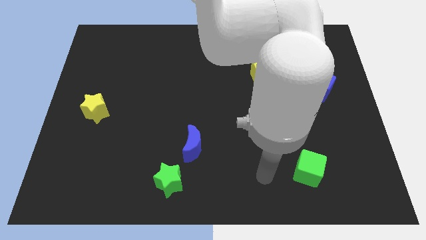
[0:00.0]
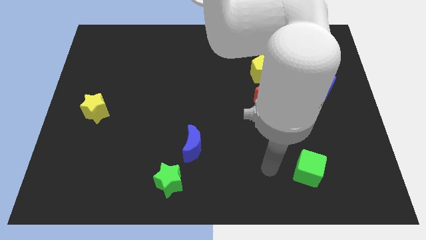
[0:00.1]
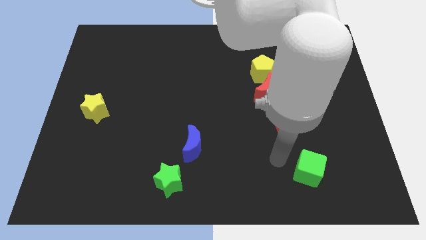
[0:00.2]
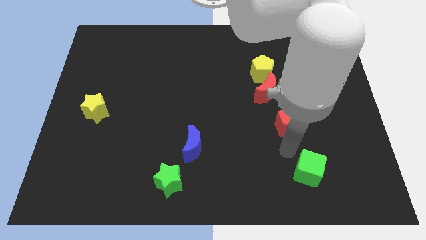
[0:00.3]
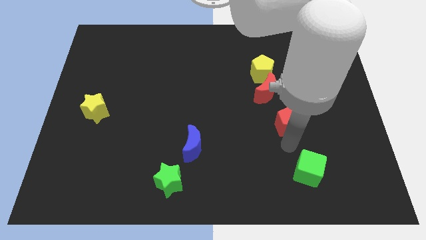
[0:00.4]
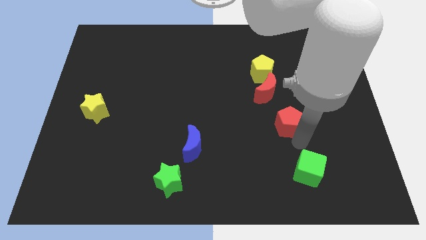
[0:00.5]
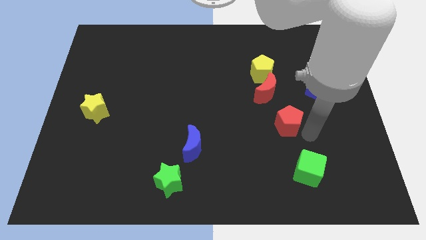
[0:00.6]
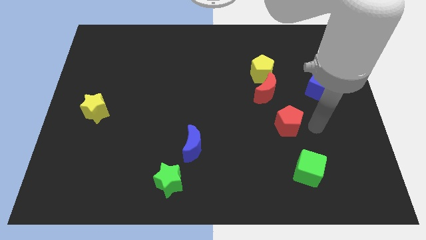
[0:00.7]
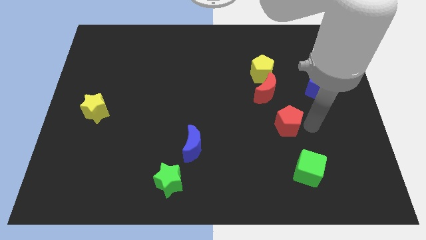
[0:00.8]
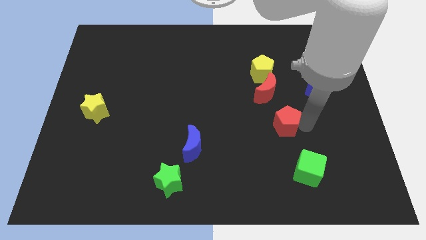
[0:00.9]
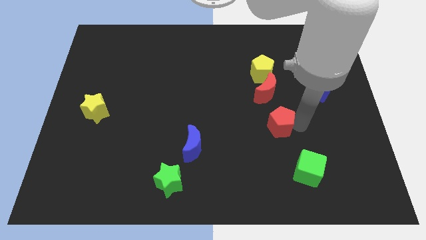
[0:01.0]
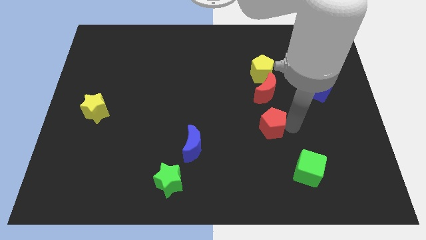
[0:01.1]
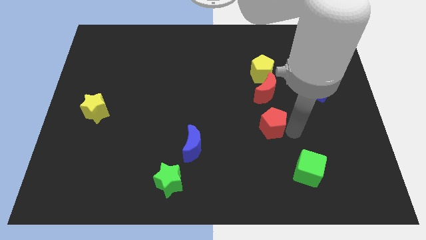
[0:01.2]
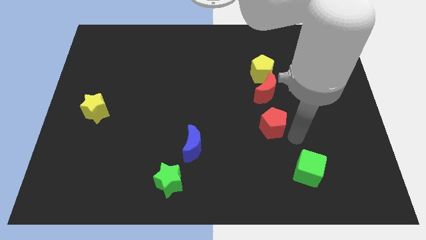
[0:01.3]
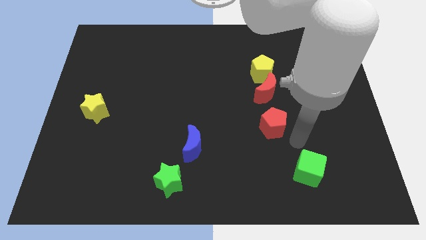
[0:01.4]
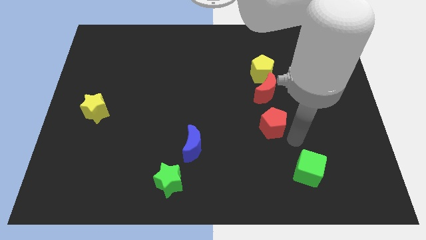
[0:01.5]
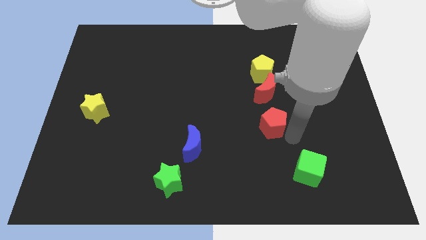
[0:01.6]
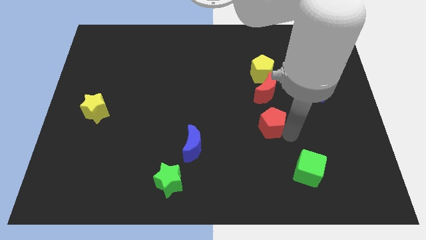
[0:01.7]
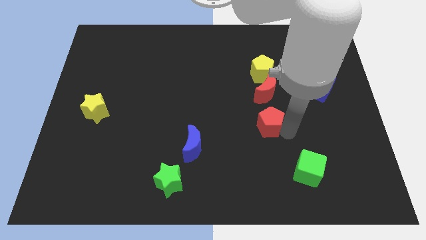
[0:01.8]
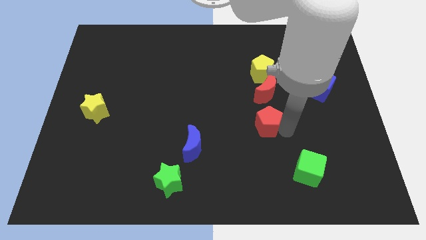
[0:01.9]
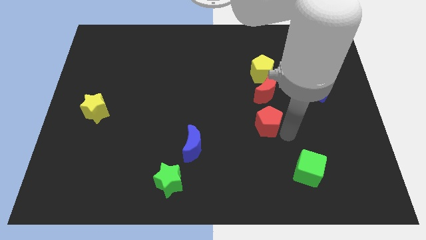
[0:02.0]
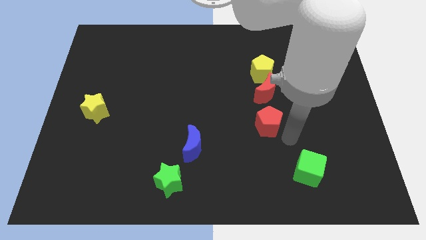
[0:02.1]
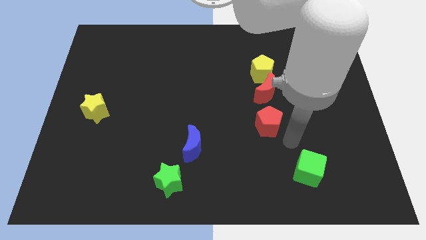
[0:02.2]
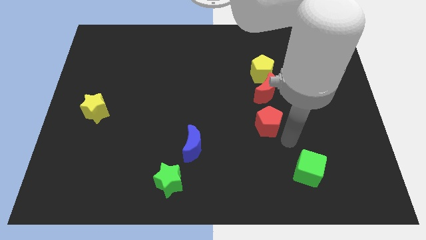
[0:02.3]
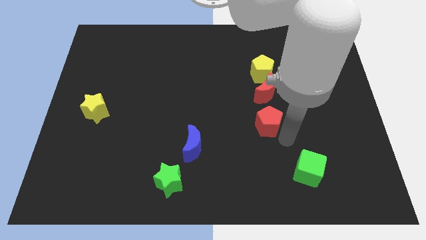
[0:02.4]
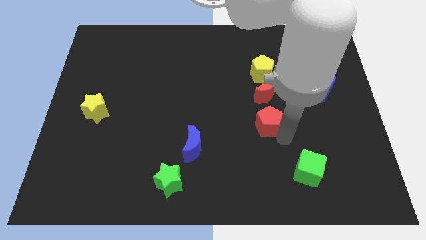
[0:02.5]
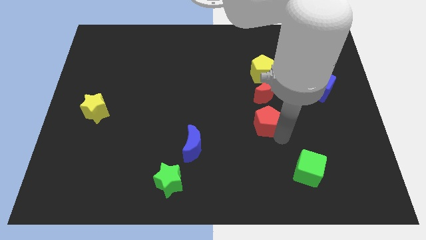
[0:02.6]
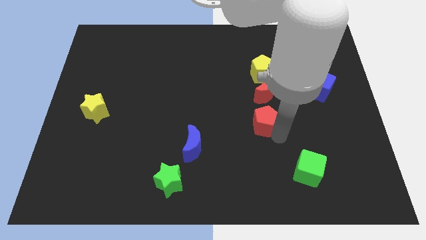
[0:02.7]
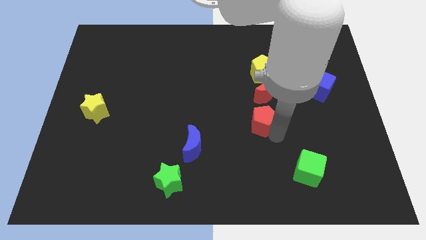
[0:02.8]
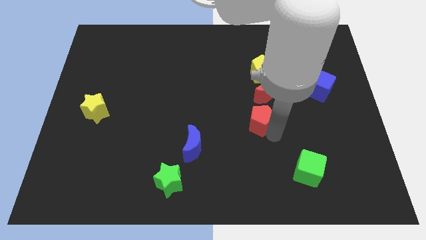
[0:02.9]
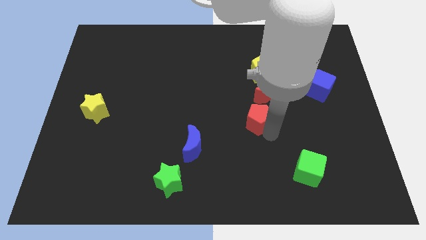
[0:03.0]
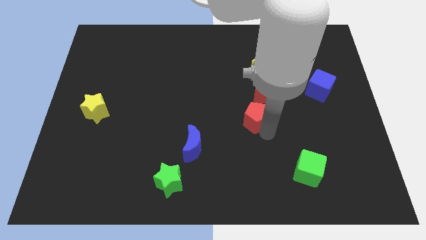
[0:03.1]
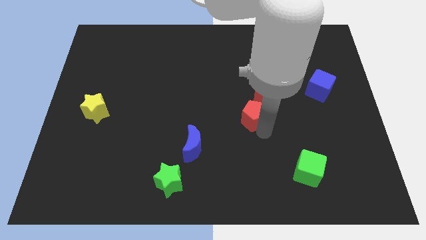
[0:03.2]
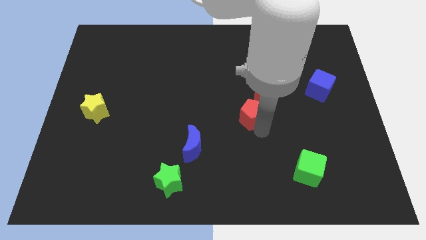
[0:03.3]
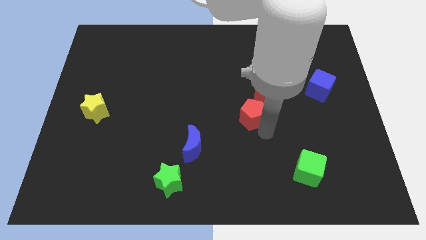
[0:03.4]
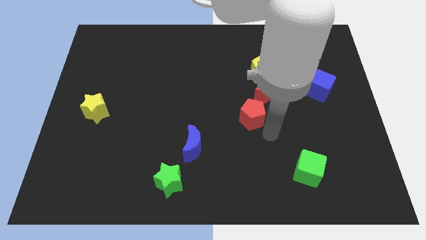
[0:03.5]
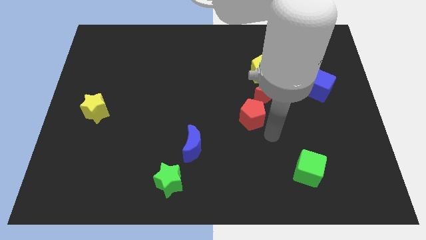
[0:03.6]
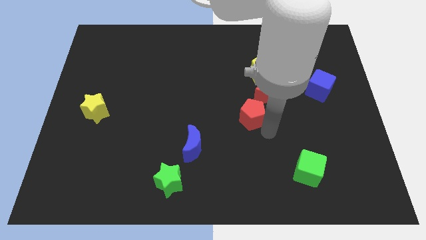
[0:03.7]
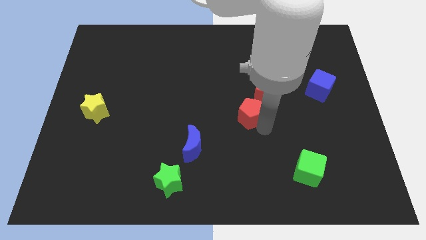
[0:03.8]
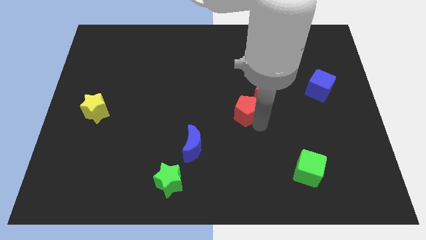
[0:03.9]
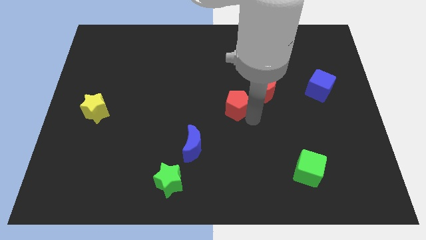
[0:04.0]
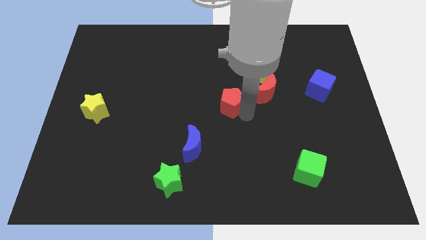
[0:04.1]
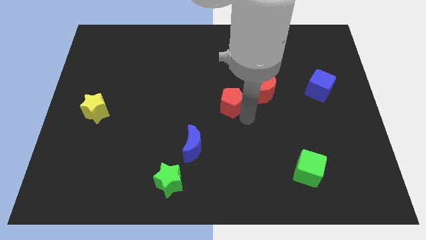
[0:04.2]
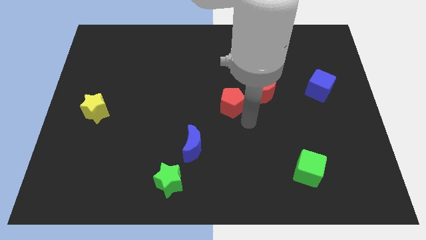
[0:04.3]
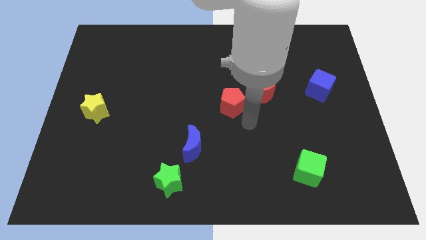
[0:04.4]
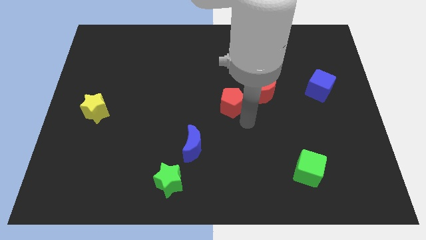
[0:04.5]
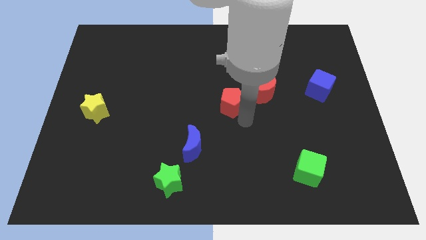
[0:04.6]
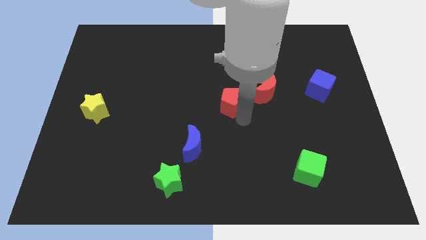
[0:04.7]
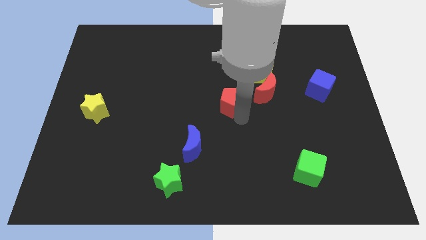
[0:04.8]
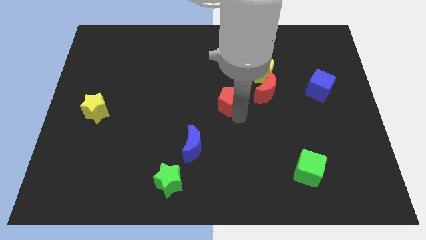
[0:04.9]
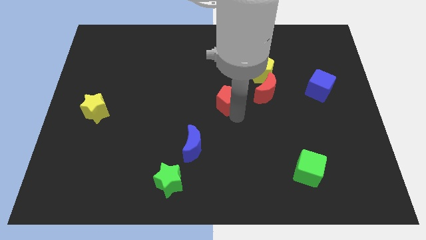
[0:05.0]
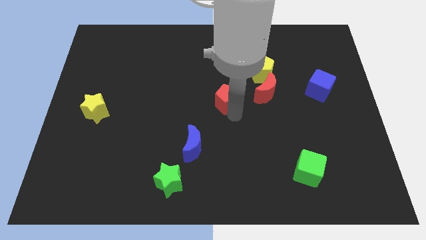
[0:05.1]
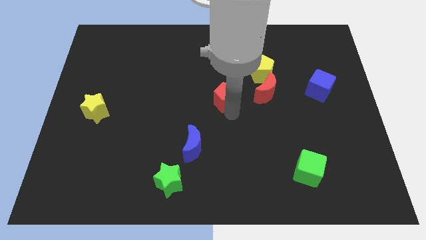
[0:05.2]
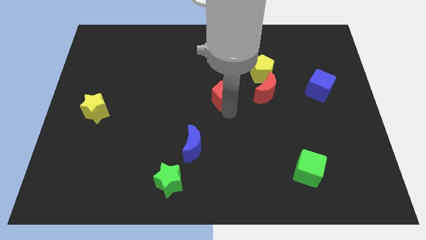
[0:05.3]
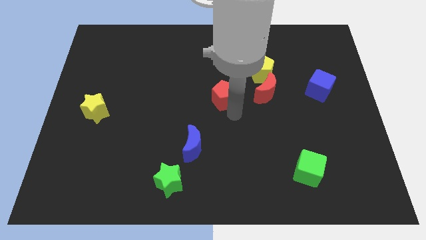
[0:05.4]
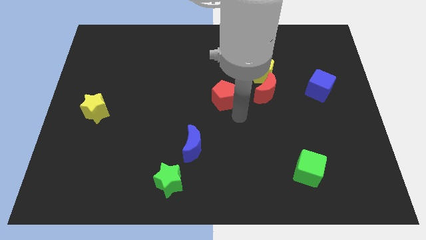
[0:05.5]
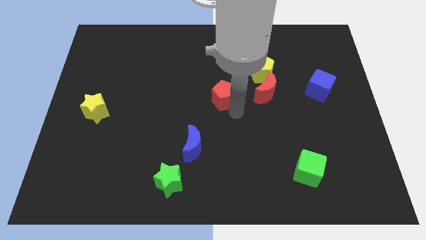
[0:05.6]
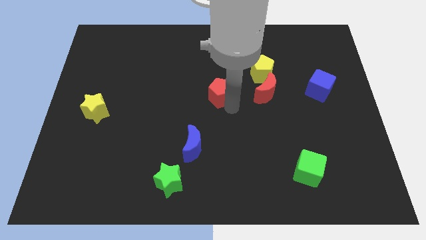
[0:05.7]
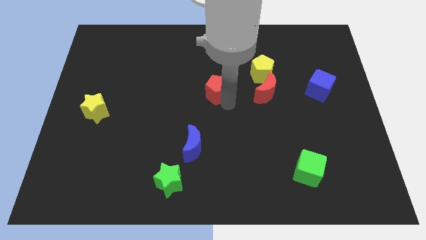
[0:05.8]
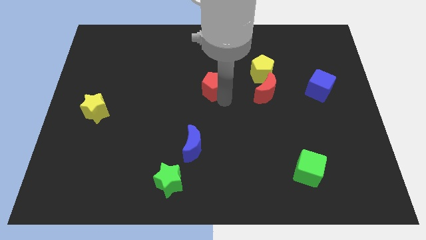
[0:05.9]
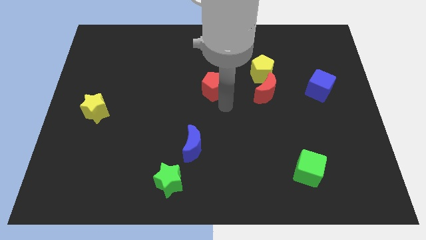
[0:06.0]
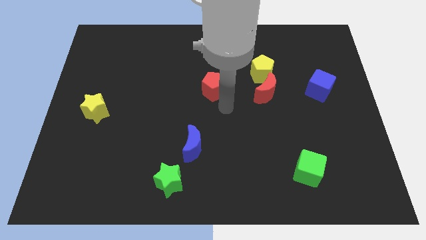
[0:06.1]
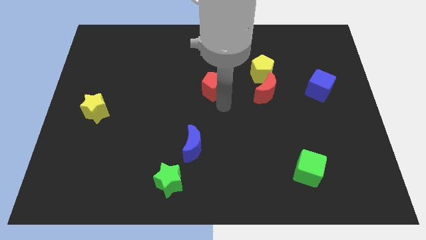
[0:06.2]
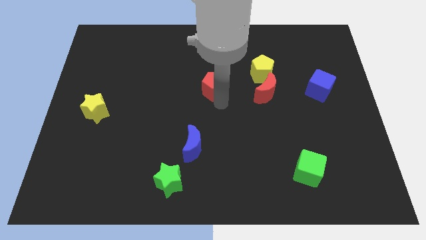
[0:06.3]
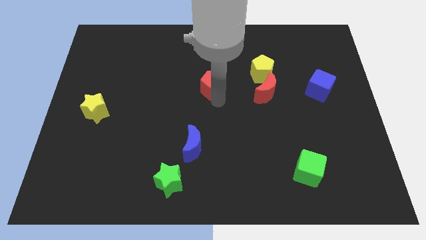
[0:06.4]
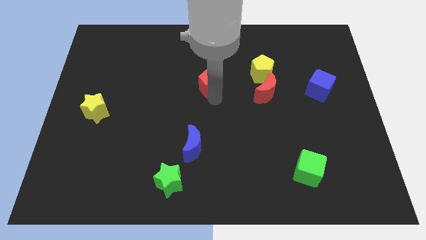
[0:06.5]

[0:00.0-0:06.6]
move the red pentagon upwards and left diagonally

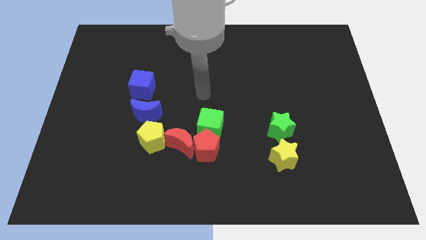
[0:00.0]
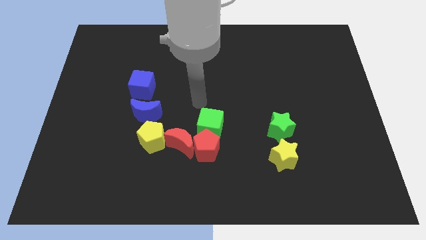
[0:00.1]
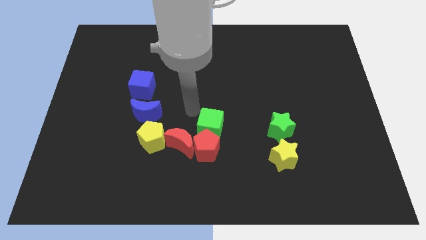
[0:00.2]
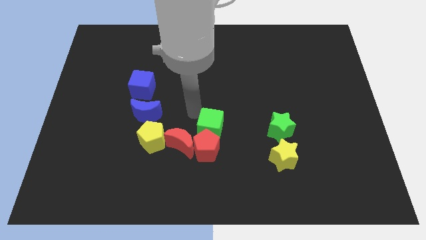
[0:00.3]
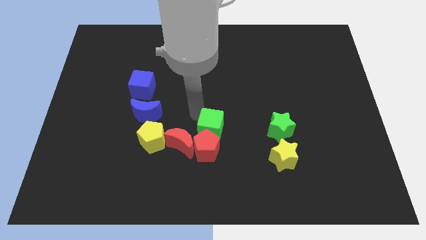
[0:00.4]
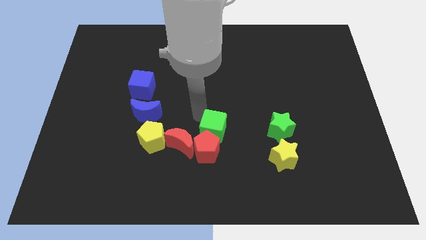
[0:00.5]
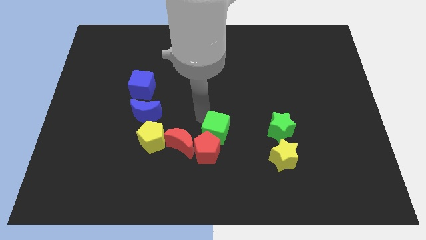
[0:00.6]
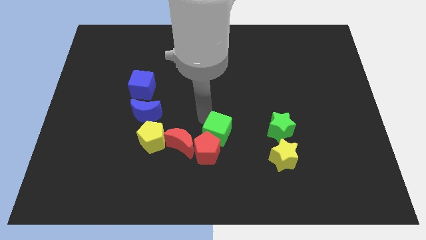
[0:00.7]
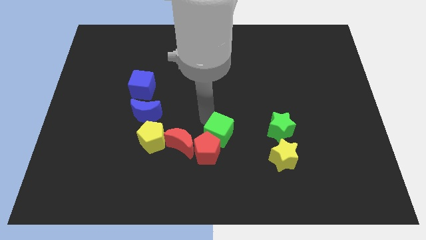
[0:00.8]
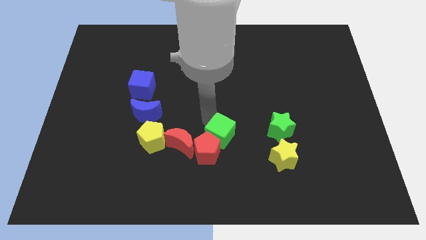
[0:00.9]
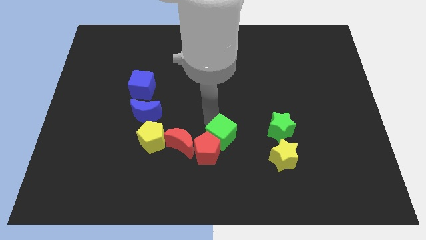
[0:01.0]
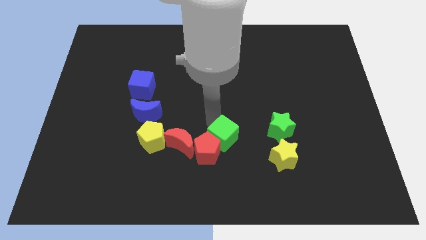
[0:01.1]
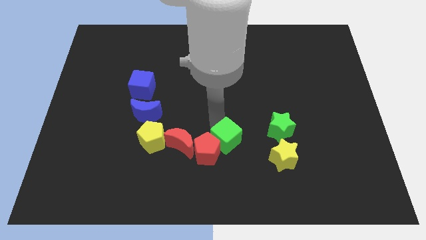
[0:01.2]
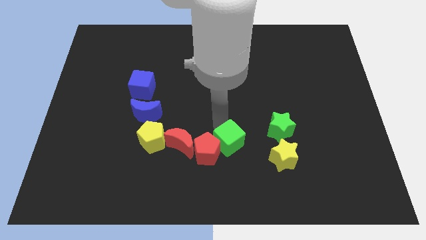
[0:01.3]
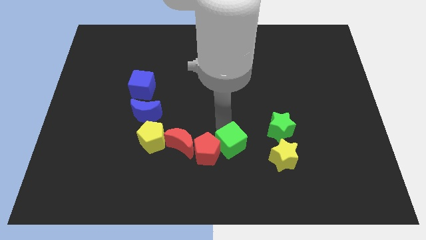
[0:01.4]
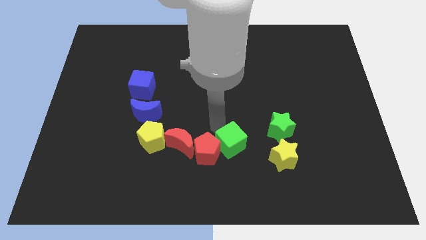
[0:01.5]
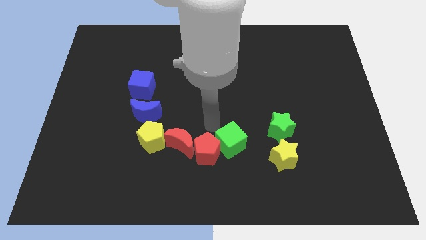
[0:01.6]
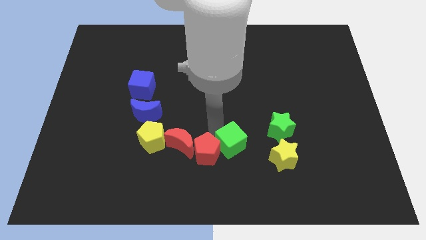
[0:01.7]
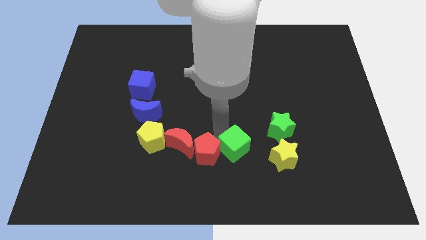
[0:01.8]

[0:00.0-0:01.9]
slightly move the green cube downwards and then right
